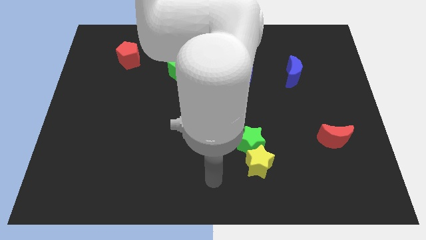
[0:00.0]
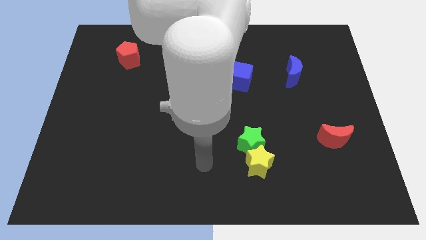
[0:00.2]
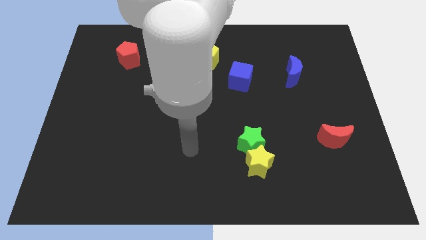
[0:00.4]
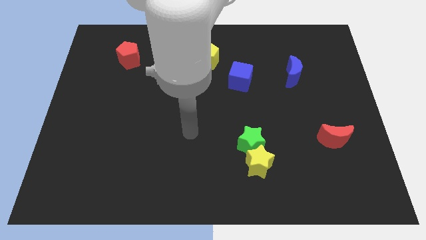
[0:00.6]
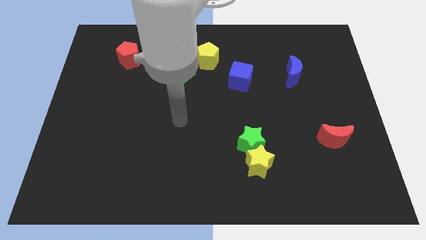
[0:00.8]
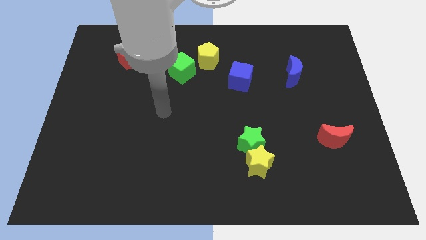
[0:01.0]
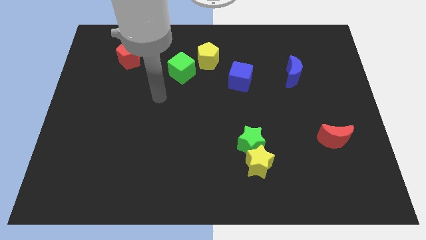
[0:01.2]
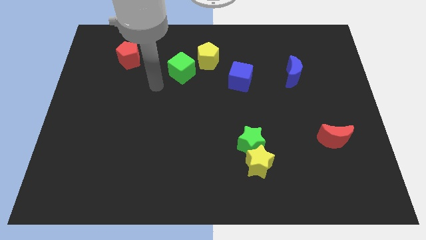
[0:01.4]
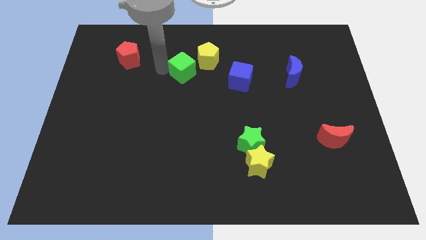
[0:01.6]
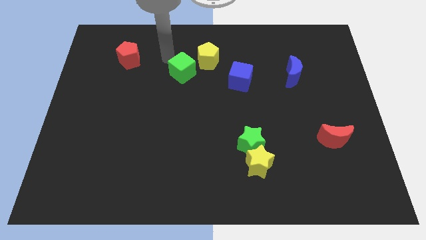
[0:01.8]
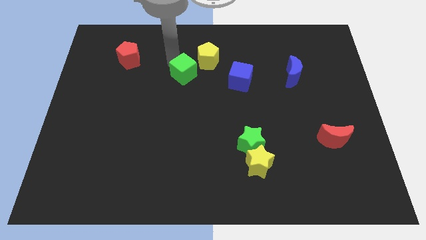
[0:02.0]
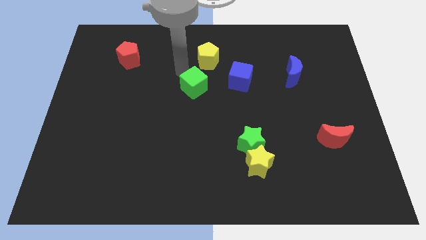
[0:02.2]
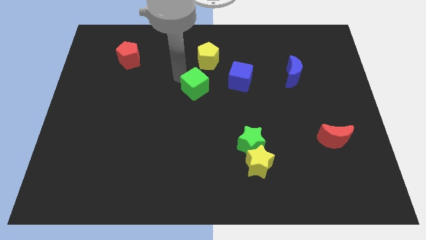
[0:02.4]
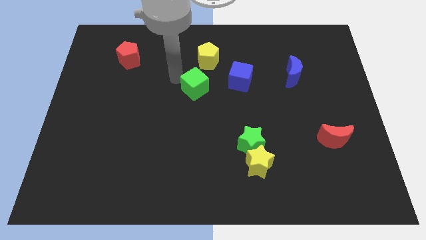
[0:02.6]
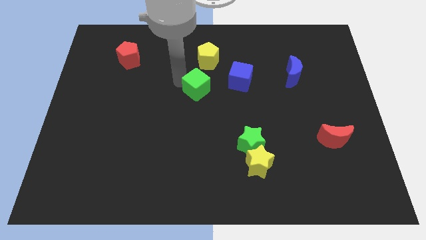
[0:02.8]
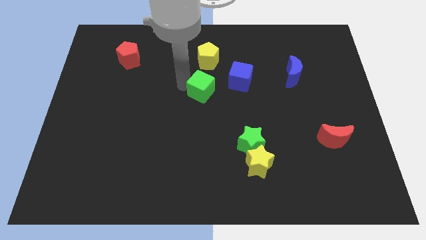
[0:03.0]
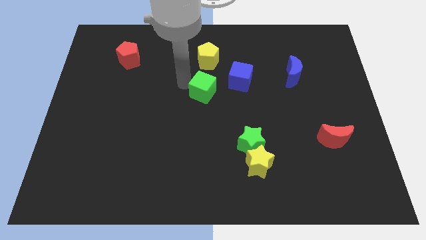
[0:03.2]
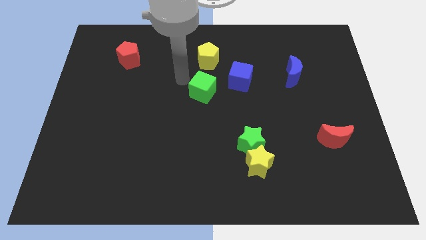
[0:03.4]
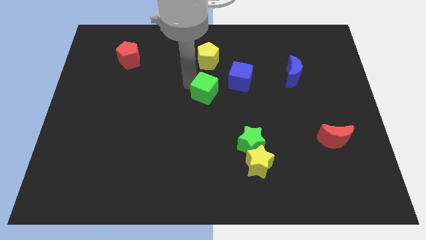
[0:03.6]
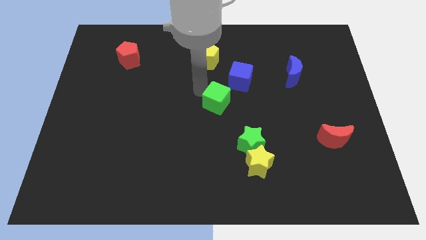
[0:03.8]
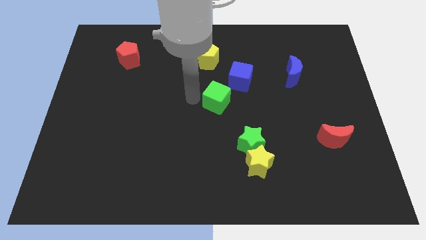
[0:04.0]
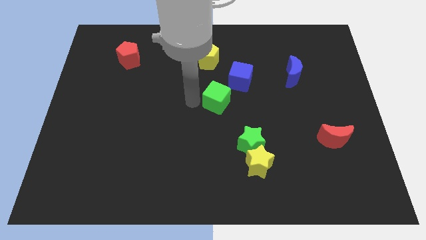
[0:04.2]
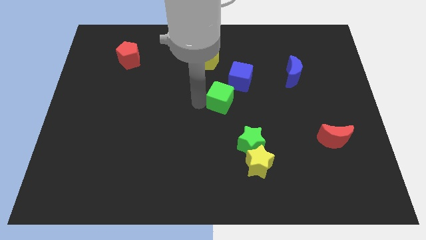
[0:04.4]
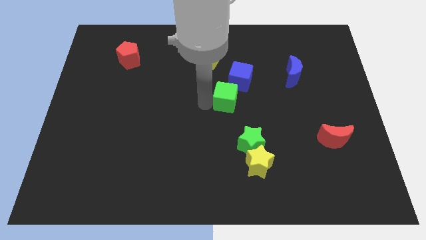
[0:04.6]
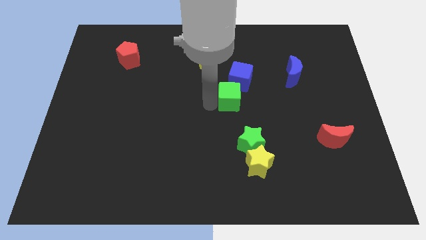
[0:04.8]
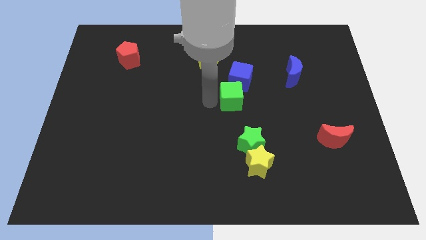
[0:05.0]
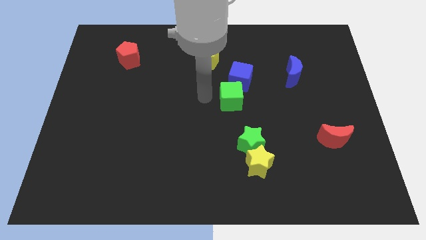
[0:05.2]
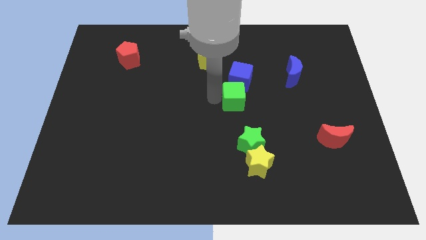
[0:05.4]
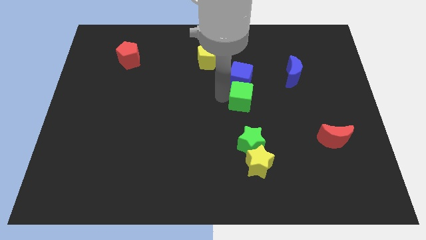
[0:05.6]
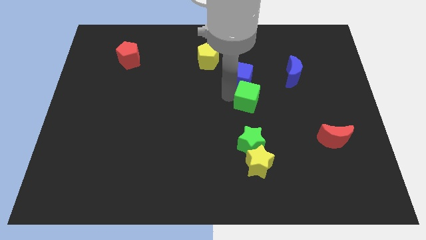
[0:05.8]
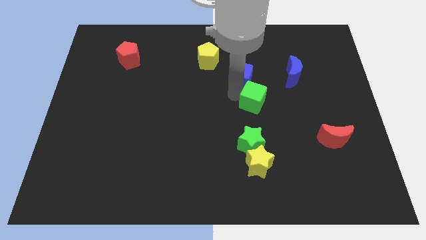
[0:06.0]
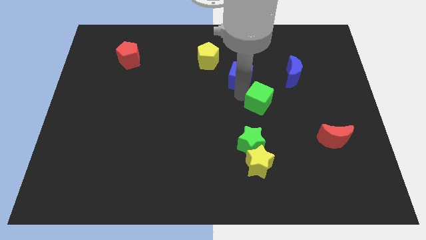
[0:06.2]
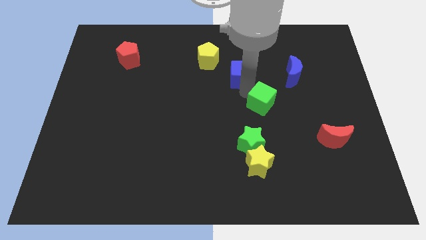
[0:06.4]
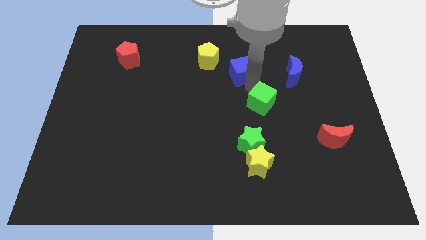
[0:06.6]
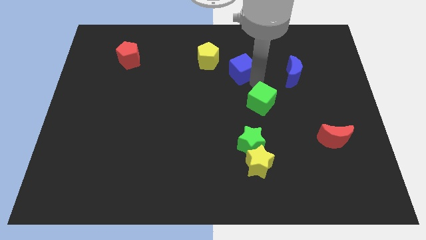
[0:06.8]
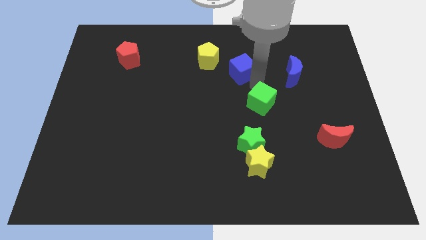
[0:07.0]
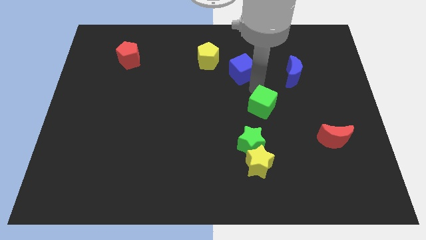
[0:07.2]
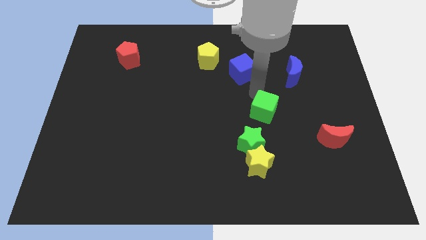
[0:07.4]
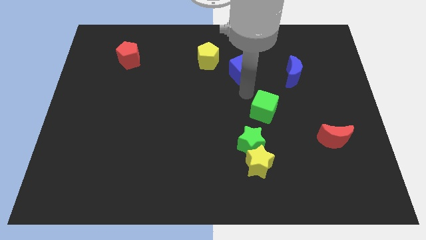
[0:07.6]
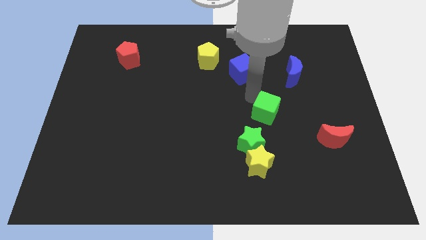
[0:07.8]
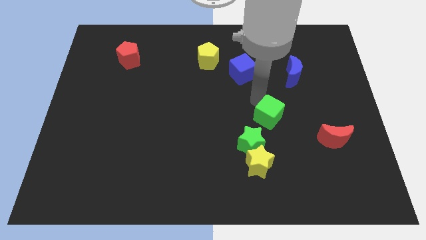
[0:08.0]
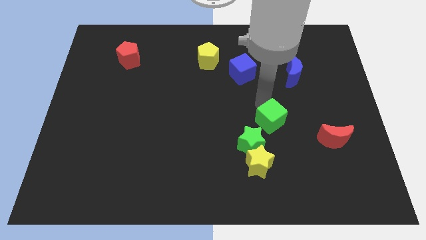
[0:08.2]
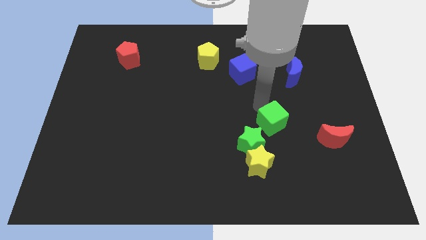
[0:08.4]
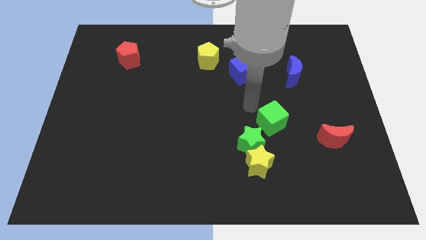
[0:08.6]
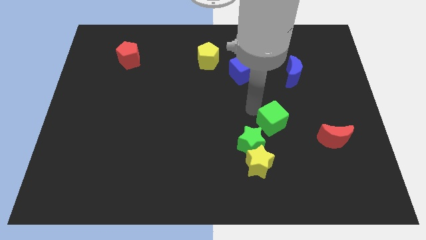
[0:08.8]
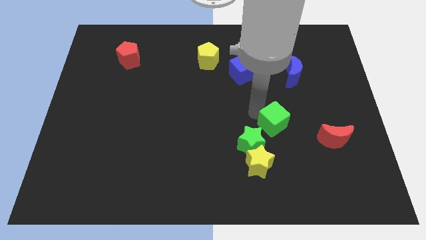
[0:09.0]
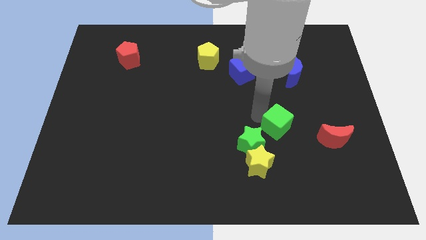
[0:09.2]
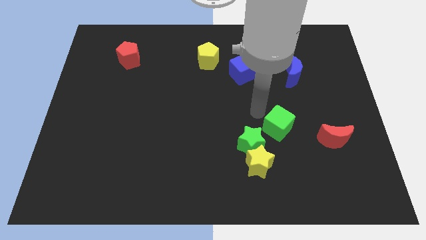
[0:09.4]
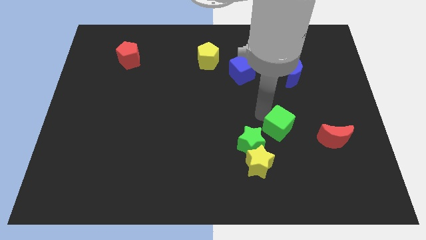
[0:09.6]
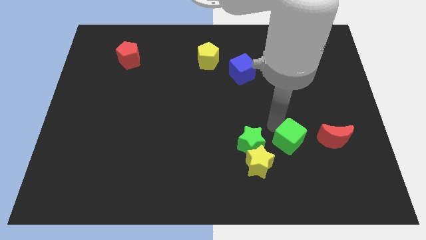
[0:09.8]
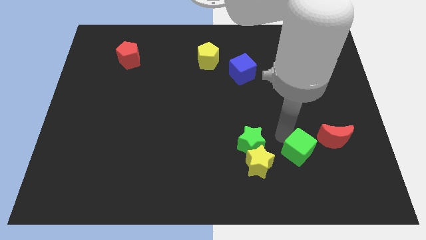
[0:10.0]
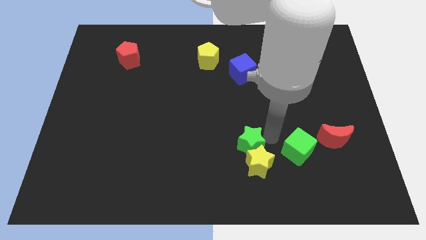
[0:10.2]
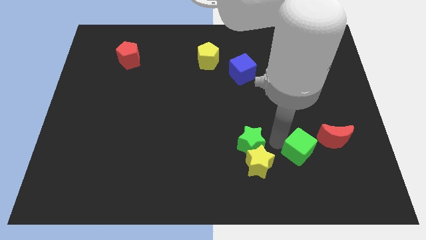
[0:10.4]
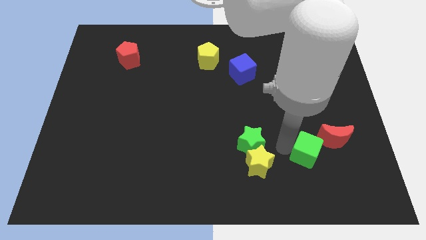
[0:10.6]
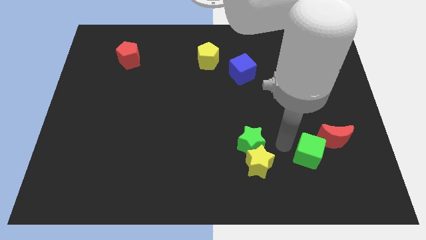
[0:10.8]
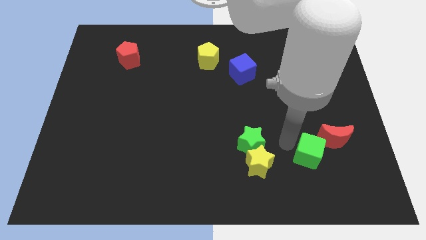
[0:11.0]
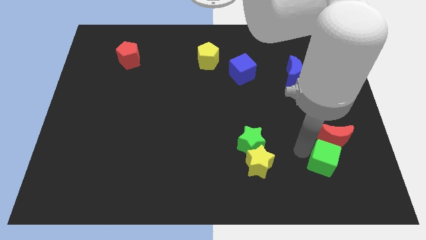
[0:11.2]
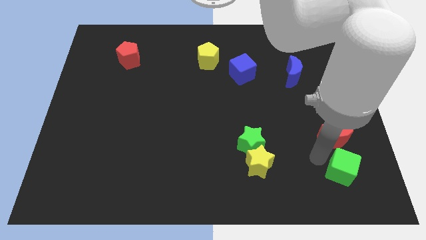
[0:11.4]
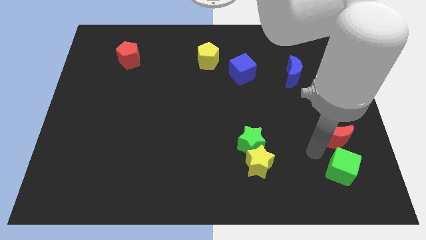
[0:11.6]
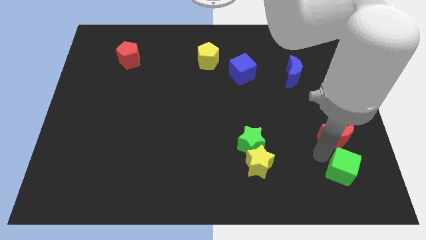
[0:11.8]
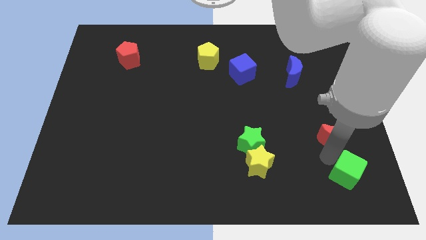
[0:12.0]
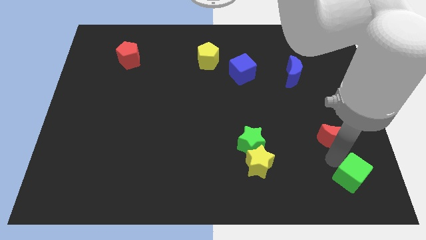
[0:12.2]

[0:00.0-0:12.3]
push the green cube to the bottom right corner
